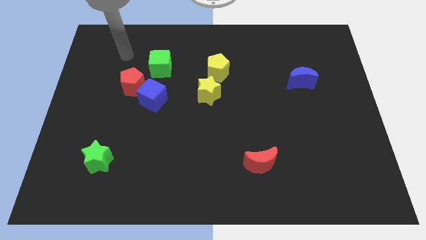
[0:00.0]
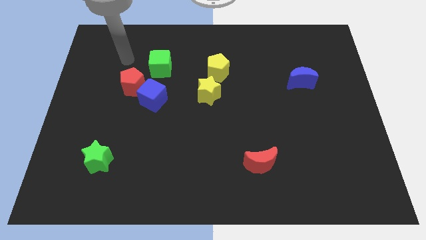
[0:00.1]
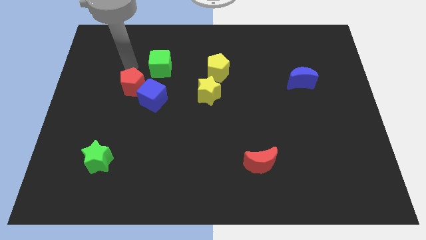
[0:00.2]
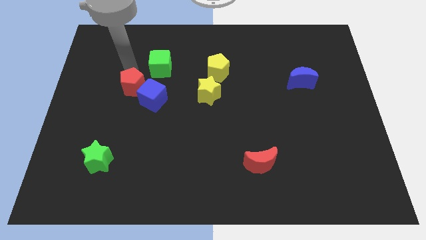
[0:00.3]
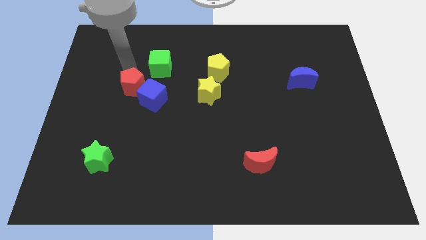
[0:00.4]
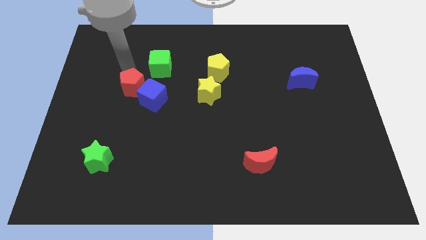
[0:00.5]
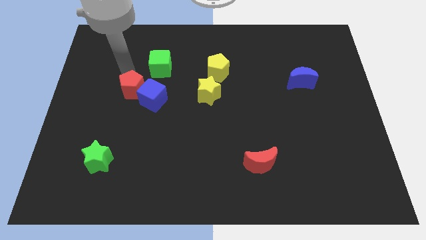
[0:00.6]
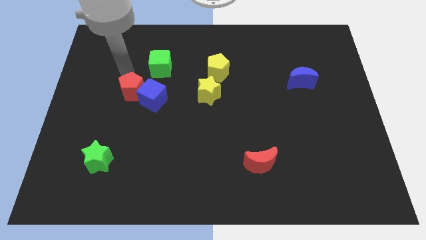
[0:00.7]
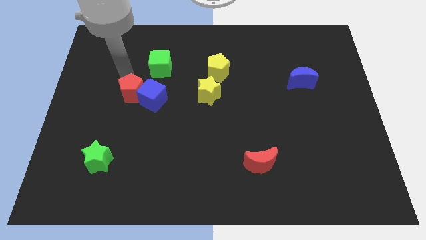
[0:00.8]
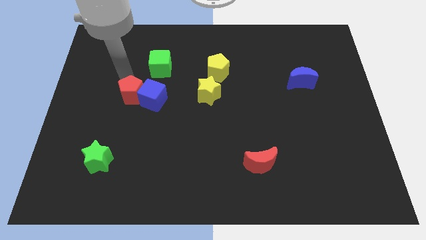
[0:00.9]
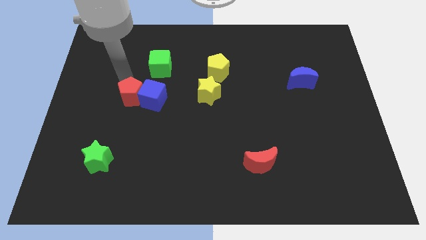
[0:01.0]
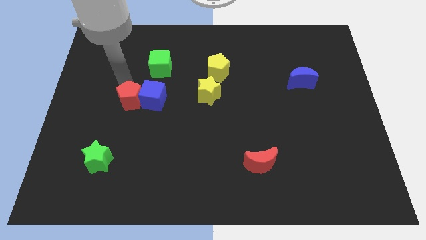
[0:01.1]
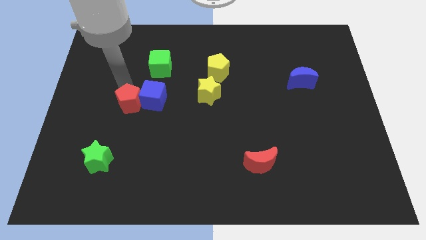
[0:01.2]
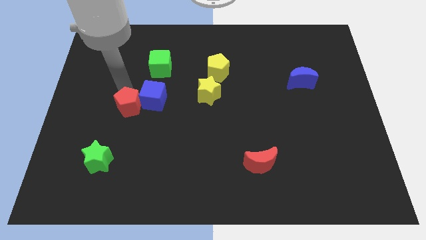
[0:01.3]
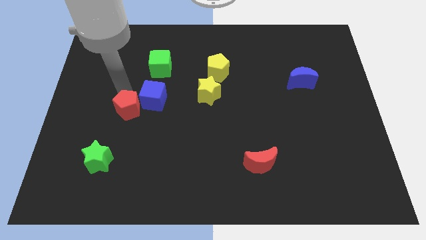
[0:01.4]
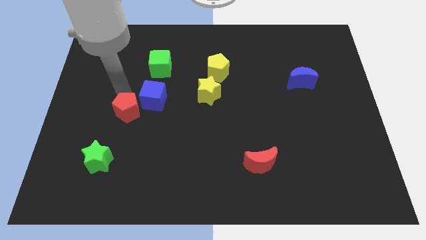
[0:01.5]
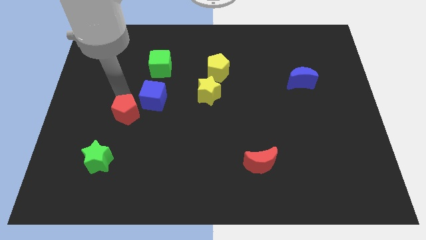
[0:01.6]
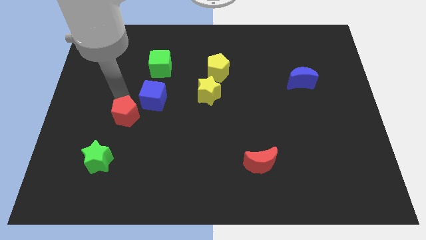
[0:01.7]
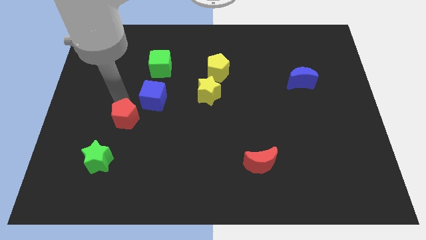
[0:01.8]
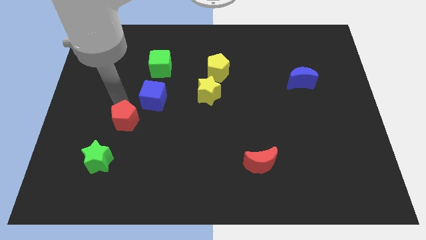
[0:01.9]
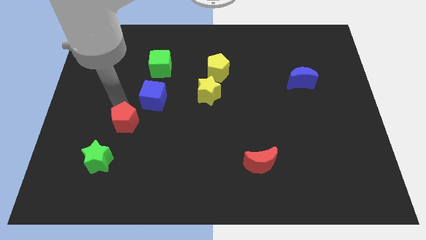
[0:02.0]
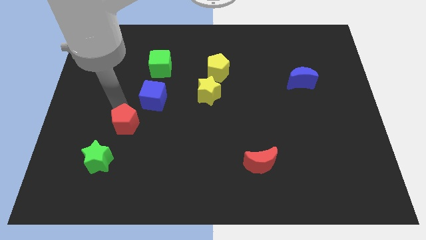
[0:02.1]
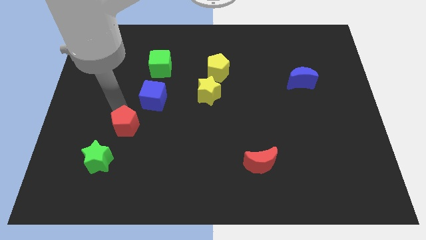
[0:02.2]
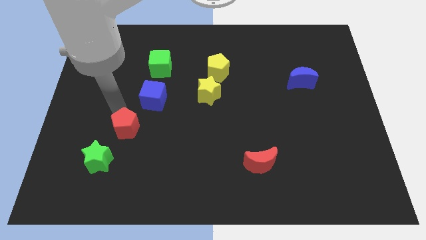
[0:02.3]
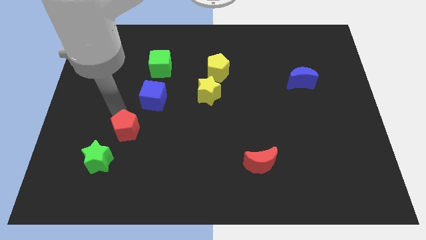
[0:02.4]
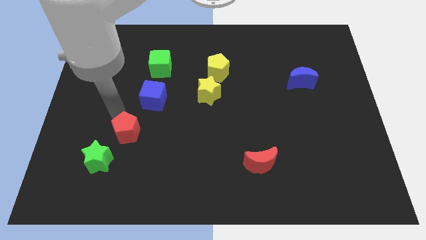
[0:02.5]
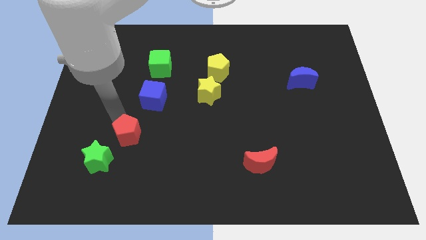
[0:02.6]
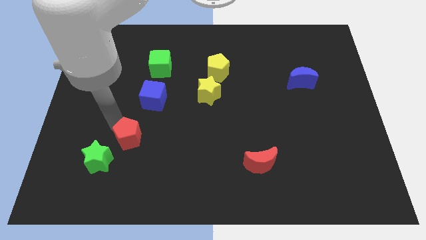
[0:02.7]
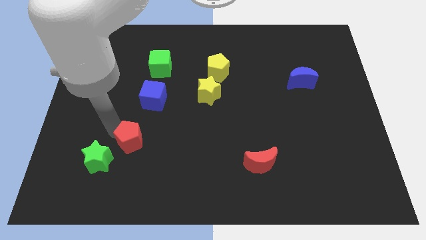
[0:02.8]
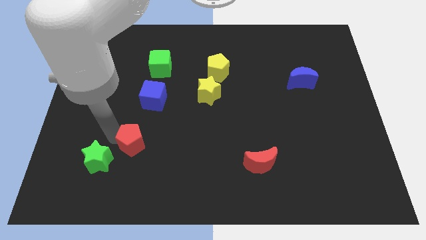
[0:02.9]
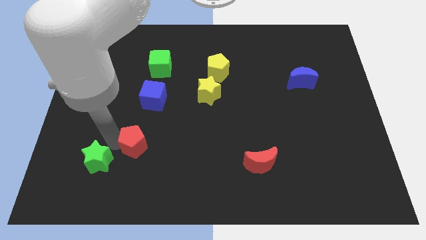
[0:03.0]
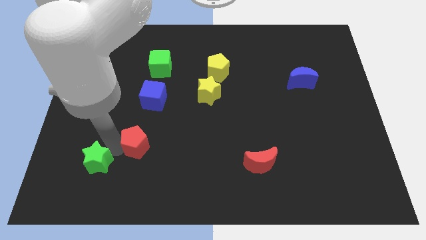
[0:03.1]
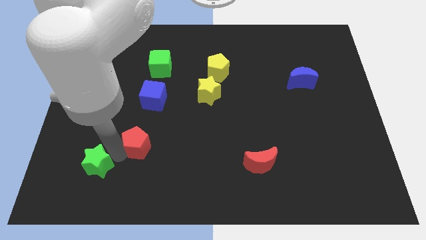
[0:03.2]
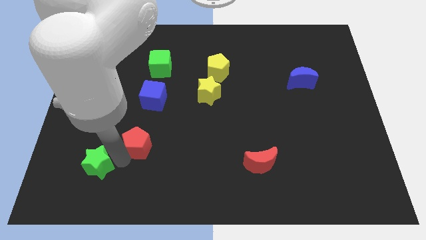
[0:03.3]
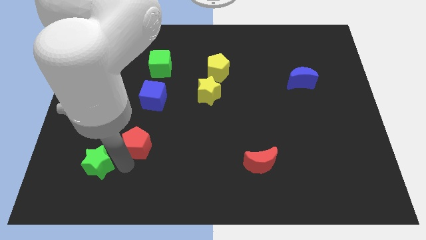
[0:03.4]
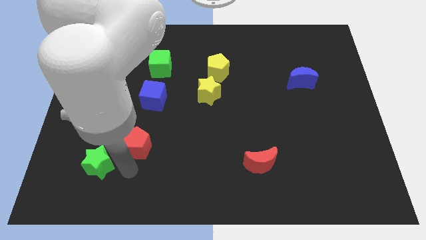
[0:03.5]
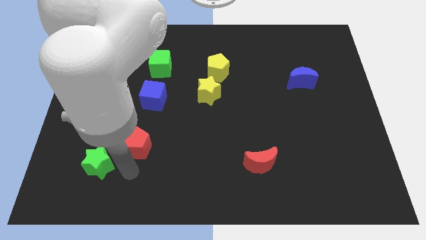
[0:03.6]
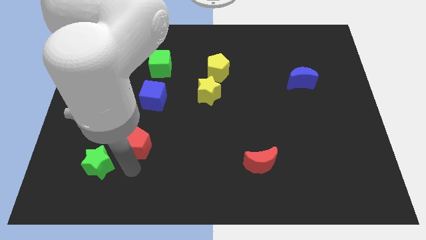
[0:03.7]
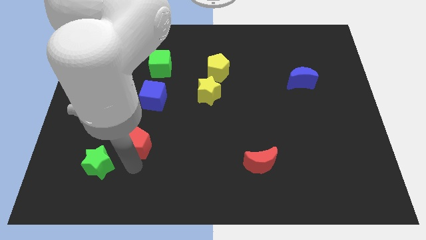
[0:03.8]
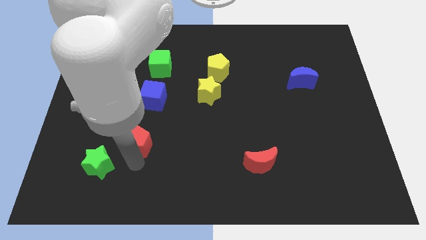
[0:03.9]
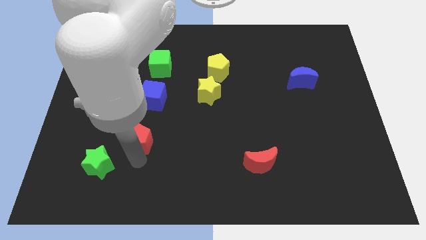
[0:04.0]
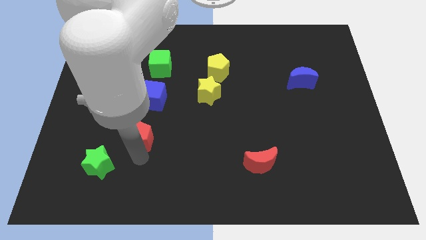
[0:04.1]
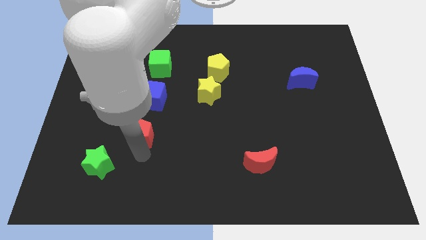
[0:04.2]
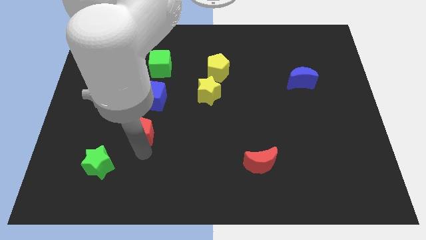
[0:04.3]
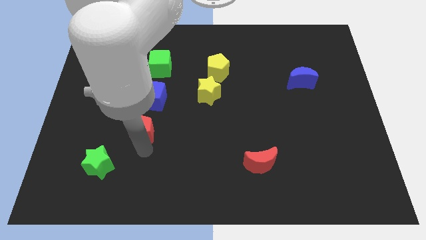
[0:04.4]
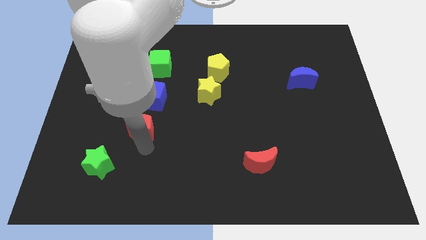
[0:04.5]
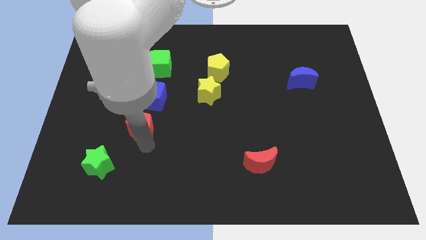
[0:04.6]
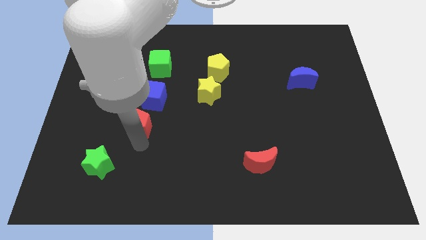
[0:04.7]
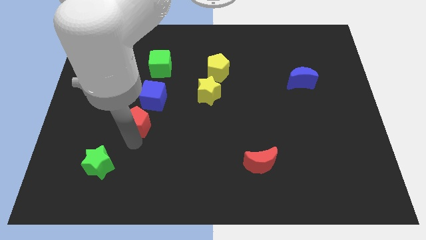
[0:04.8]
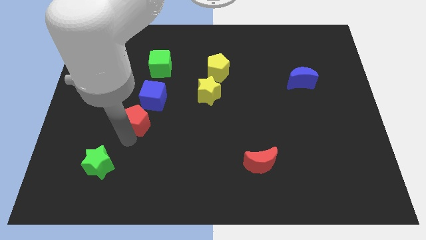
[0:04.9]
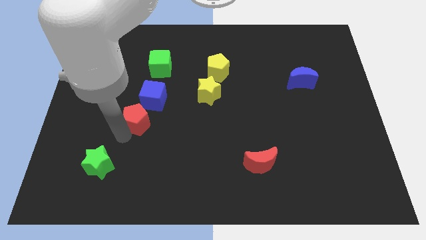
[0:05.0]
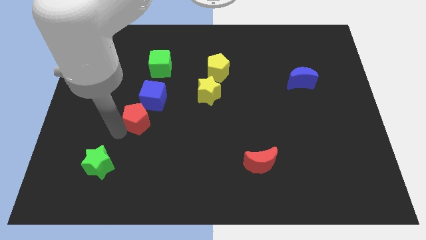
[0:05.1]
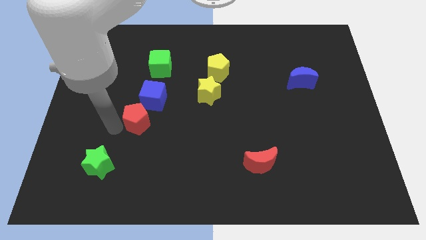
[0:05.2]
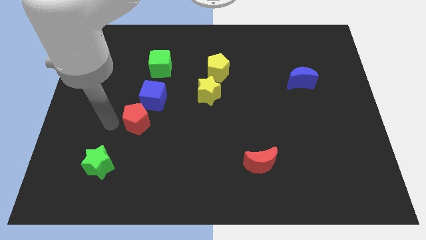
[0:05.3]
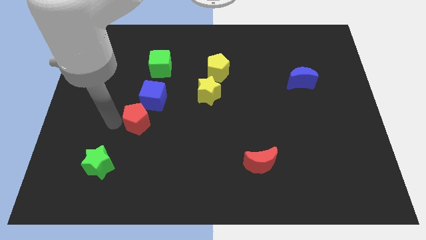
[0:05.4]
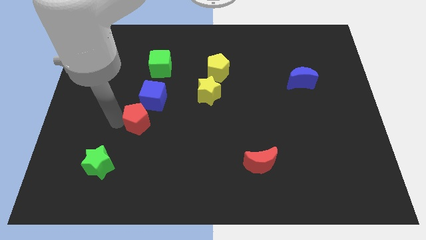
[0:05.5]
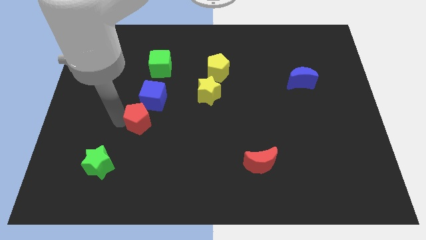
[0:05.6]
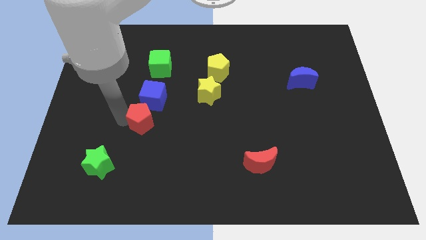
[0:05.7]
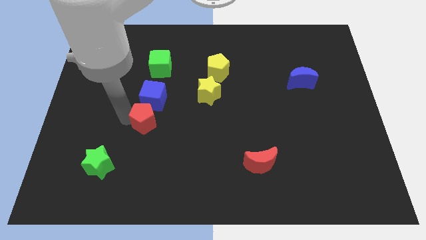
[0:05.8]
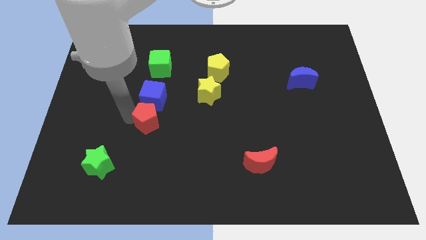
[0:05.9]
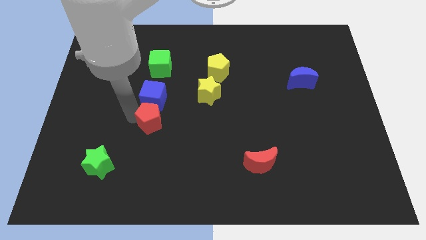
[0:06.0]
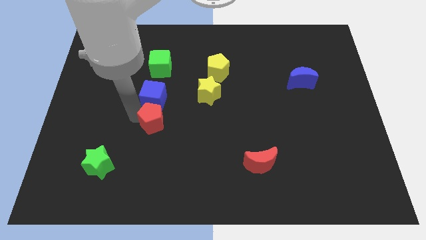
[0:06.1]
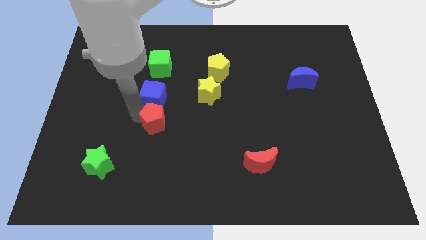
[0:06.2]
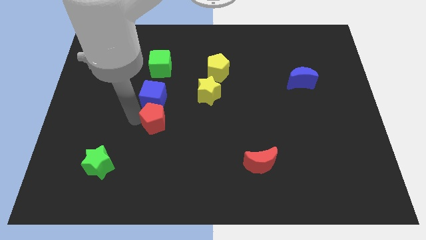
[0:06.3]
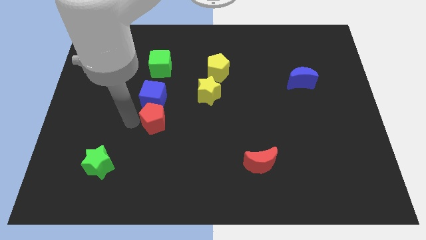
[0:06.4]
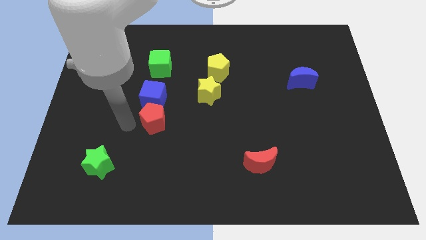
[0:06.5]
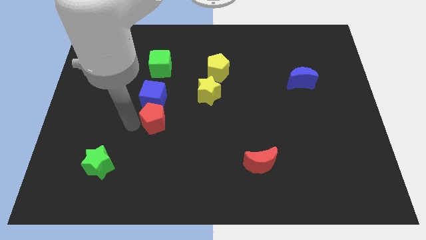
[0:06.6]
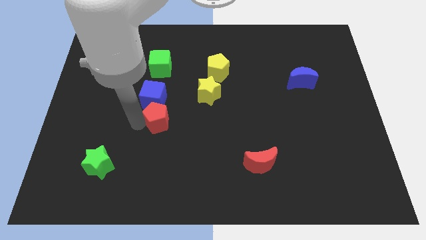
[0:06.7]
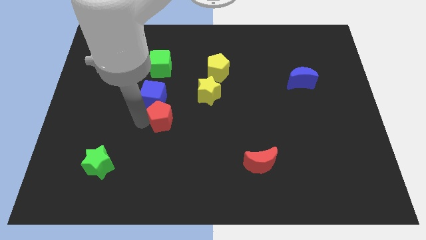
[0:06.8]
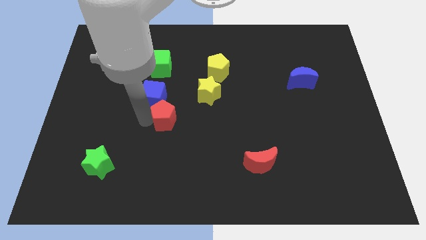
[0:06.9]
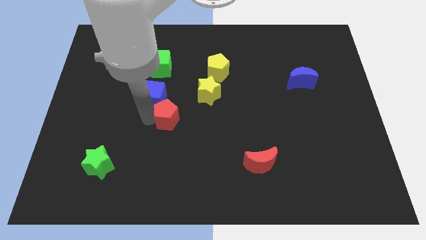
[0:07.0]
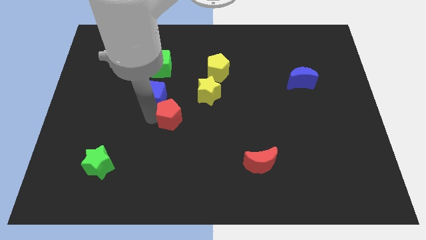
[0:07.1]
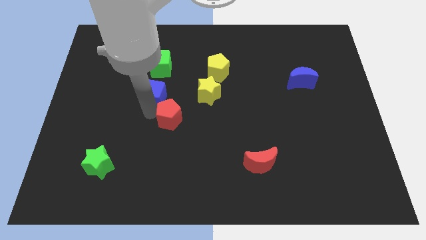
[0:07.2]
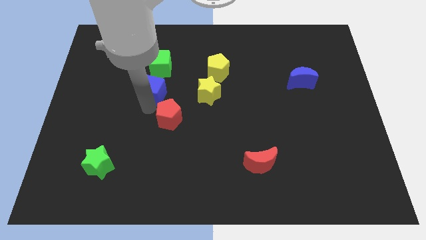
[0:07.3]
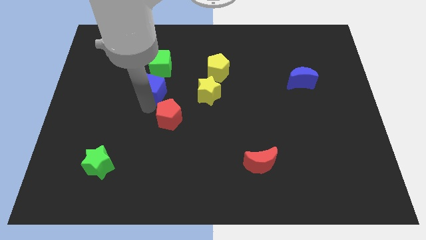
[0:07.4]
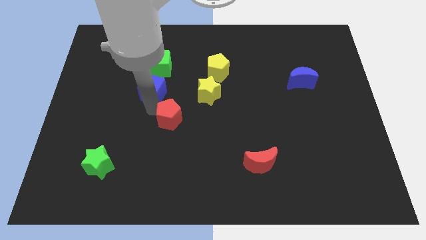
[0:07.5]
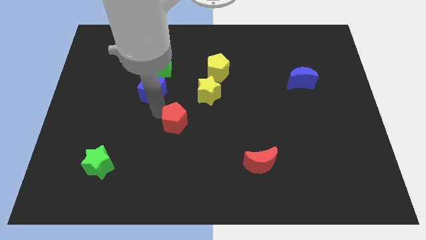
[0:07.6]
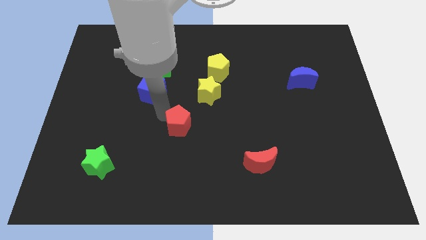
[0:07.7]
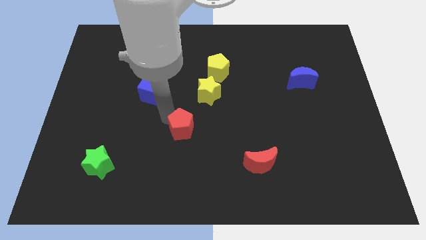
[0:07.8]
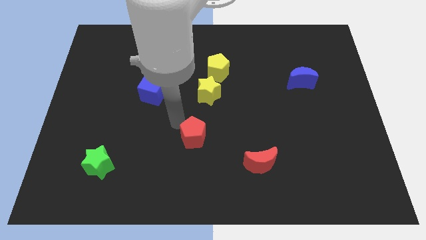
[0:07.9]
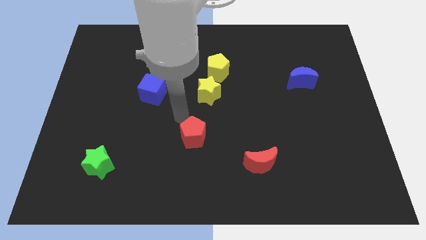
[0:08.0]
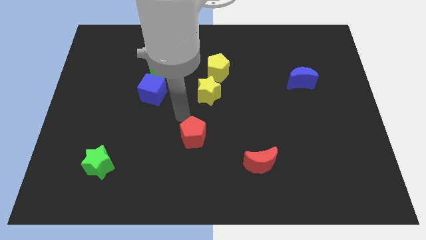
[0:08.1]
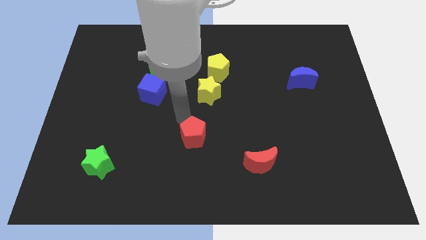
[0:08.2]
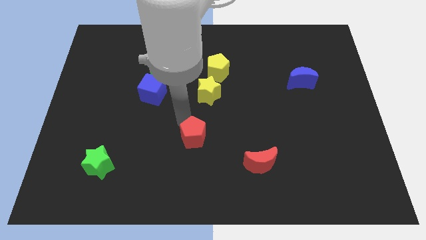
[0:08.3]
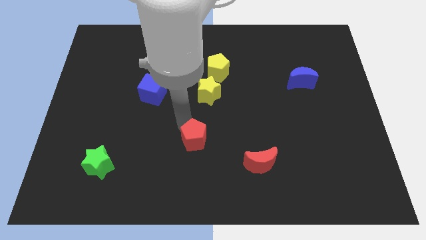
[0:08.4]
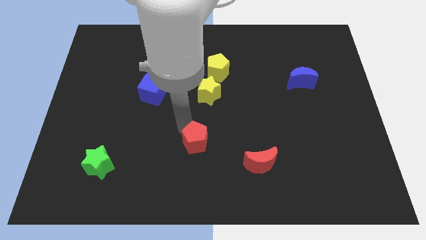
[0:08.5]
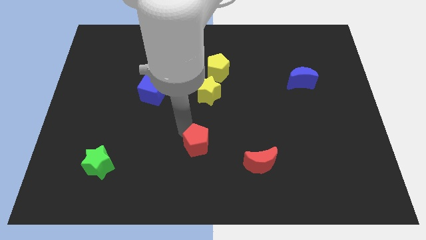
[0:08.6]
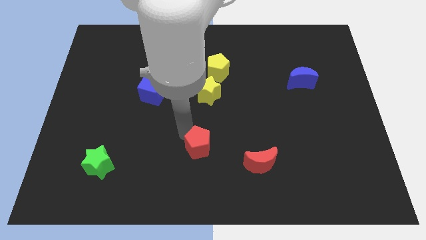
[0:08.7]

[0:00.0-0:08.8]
push the red pentagon to the left side of the red moon
